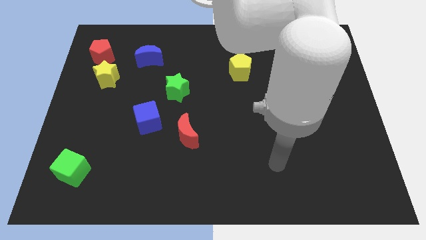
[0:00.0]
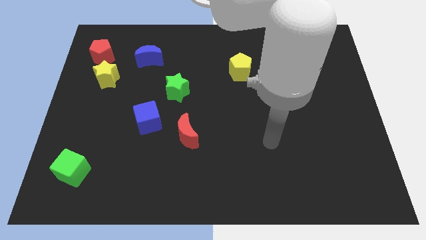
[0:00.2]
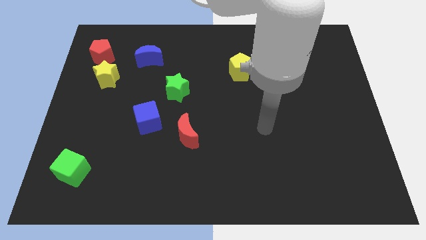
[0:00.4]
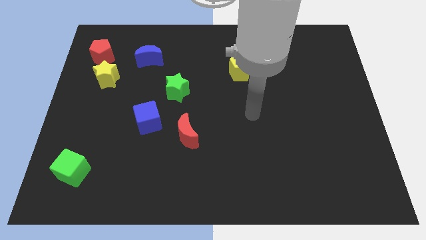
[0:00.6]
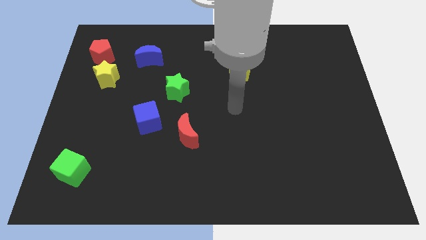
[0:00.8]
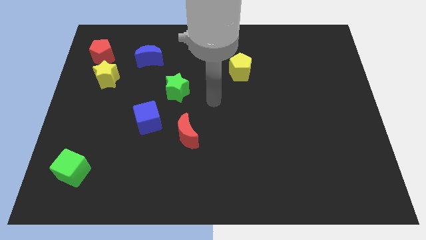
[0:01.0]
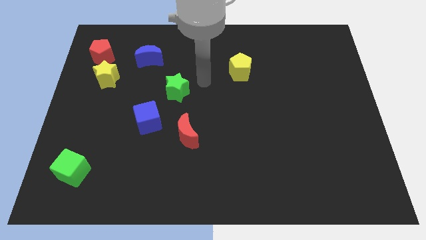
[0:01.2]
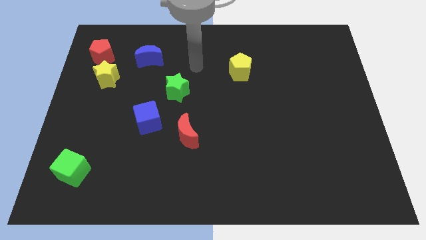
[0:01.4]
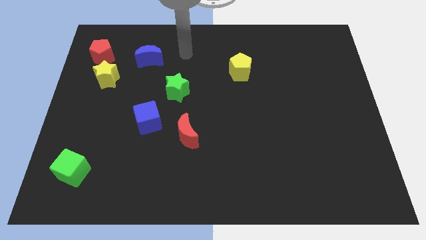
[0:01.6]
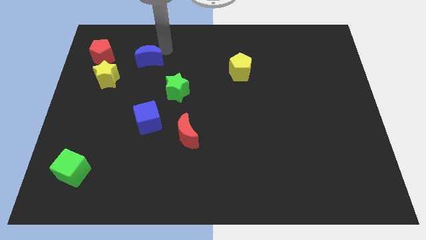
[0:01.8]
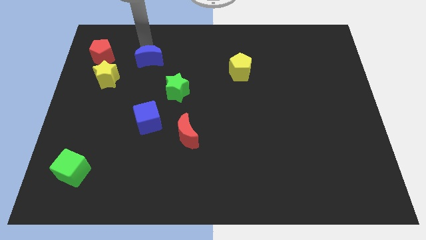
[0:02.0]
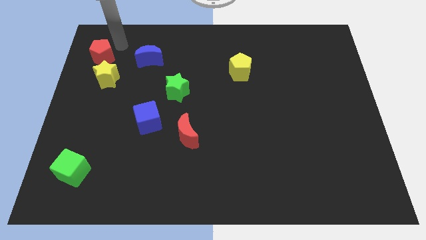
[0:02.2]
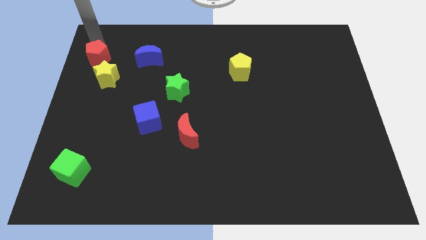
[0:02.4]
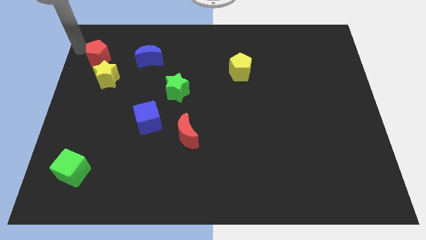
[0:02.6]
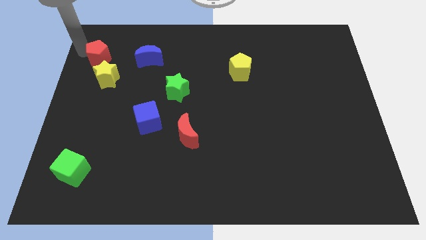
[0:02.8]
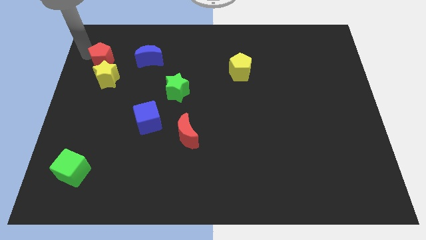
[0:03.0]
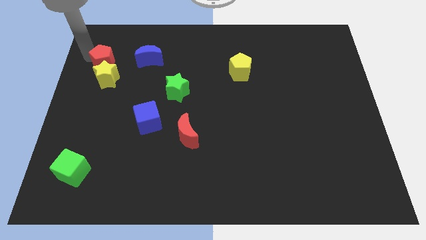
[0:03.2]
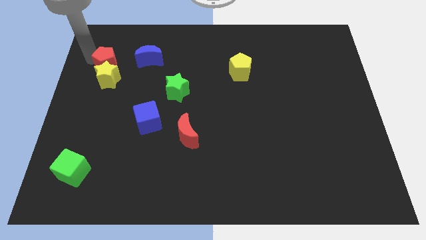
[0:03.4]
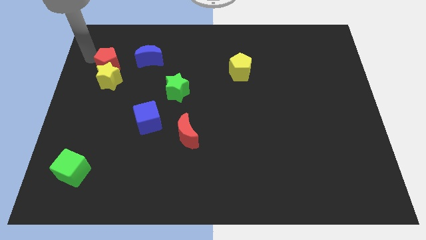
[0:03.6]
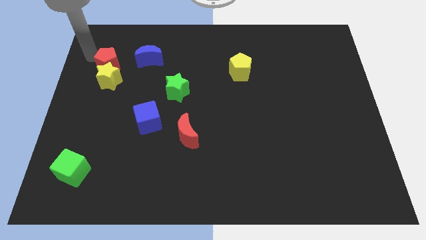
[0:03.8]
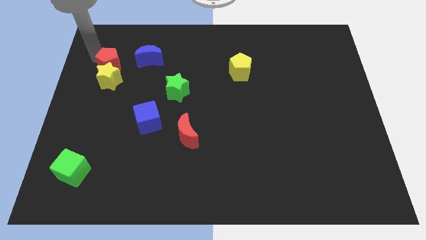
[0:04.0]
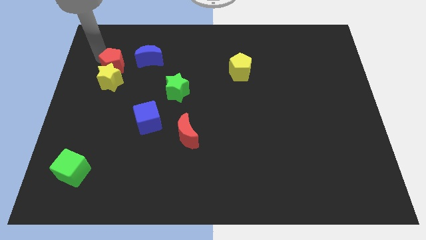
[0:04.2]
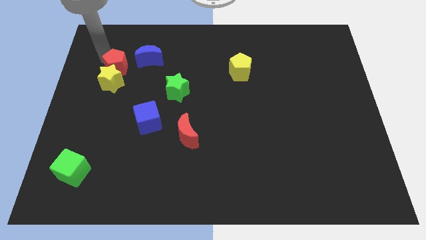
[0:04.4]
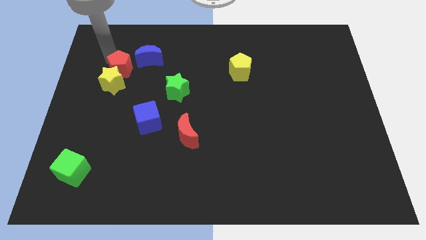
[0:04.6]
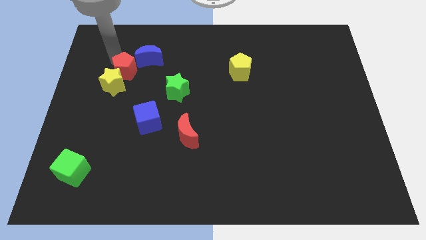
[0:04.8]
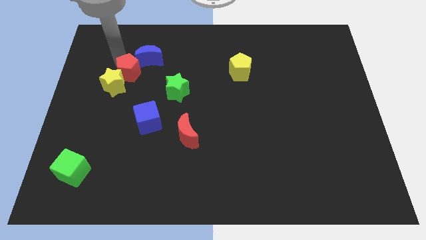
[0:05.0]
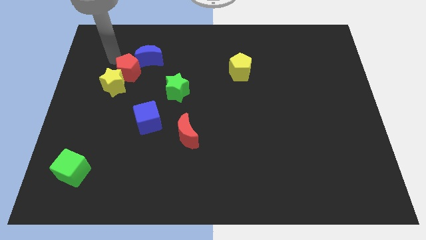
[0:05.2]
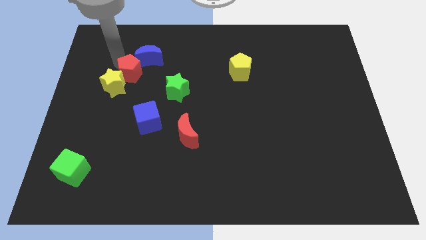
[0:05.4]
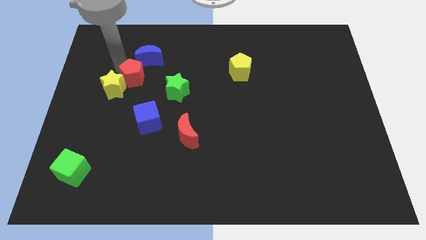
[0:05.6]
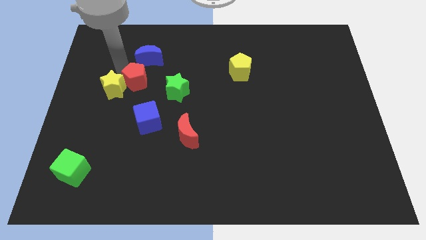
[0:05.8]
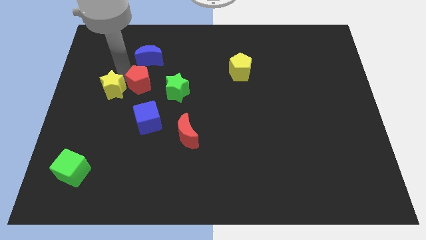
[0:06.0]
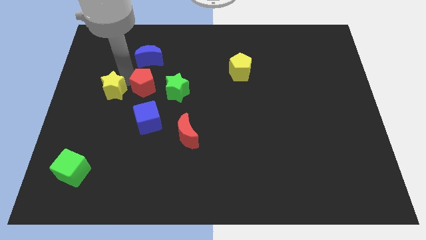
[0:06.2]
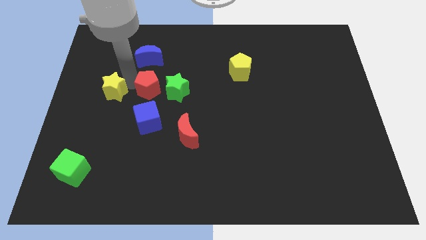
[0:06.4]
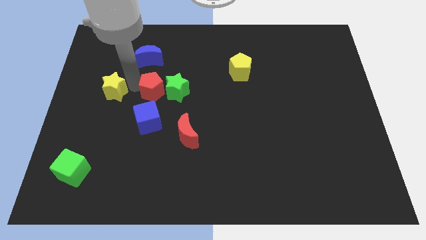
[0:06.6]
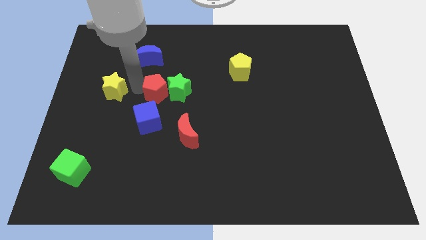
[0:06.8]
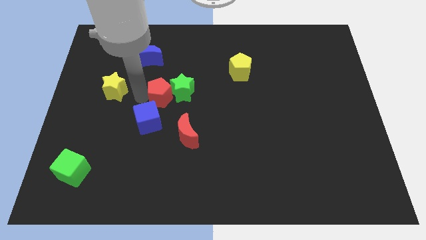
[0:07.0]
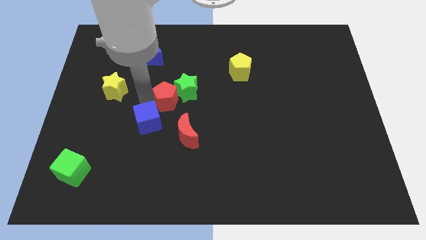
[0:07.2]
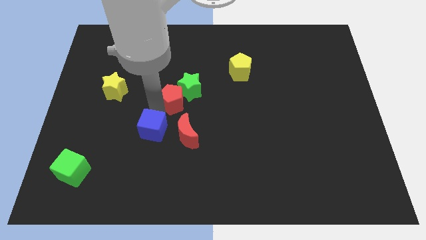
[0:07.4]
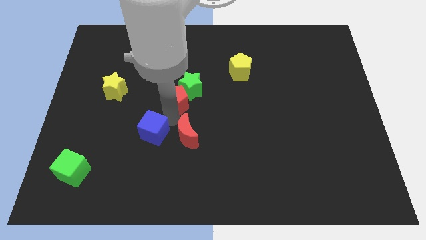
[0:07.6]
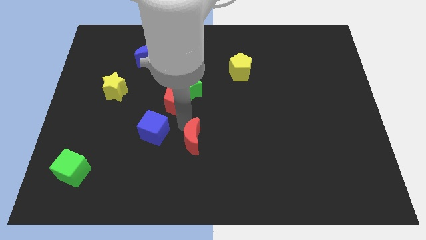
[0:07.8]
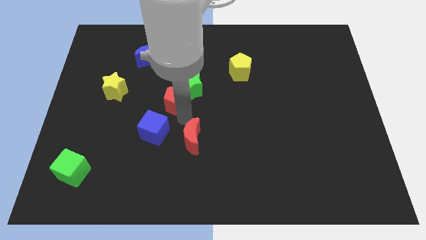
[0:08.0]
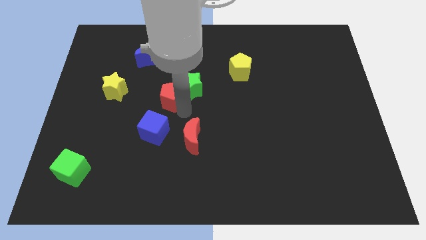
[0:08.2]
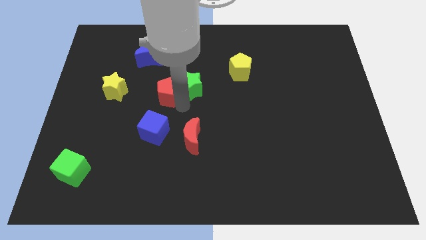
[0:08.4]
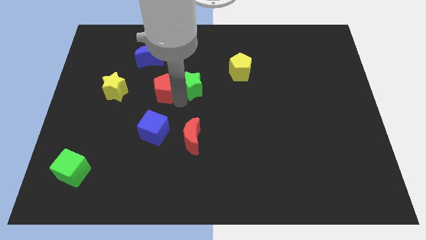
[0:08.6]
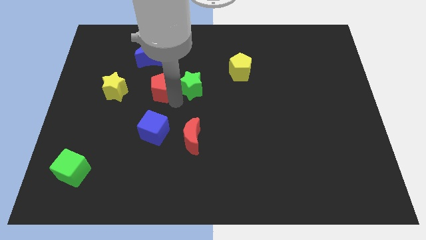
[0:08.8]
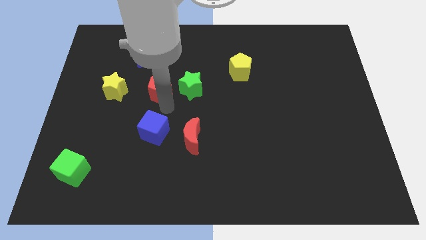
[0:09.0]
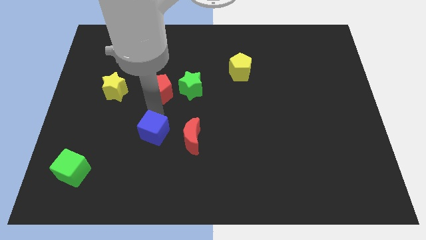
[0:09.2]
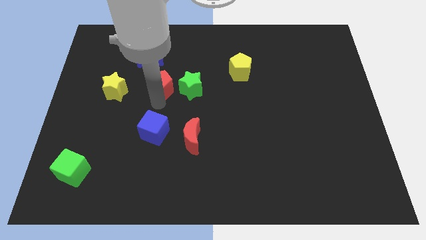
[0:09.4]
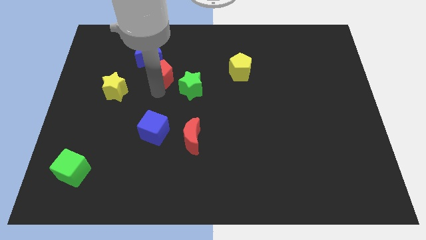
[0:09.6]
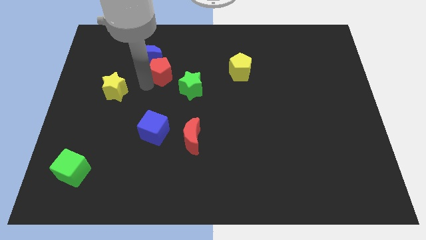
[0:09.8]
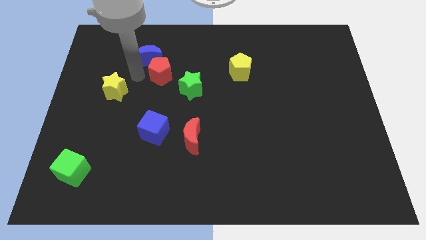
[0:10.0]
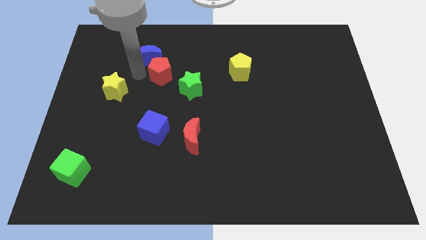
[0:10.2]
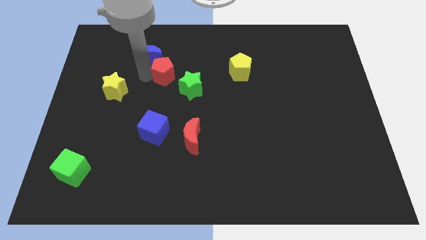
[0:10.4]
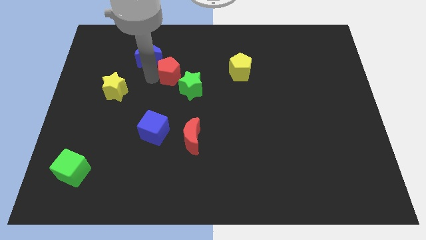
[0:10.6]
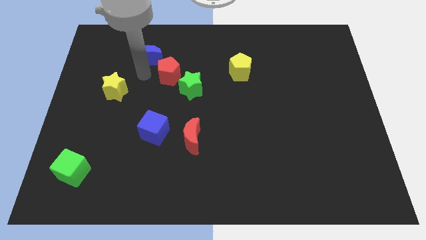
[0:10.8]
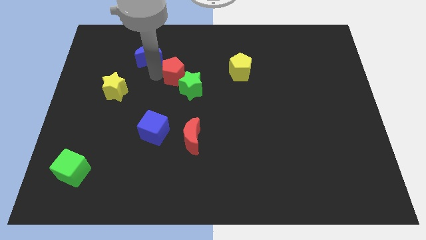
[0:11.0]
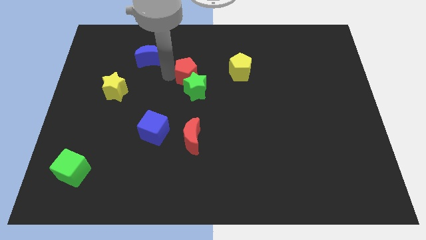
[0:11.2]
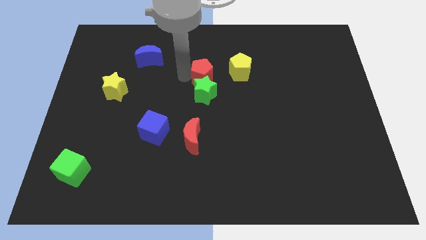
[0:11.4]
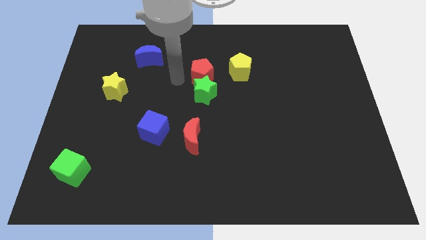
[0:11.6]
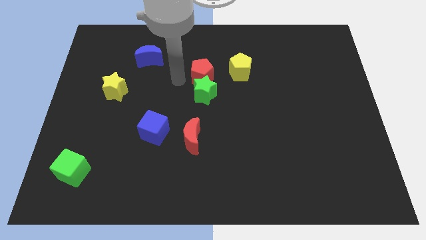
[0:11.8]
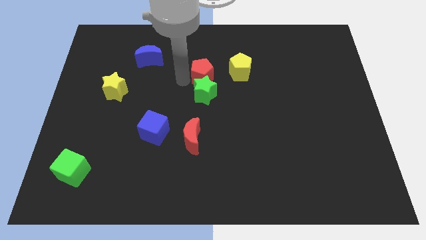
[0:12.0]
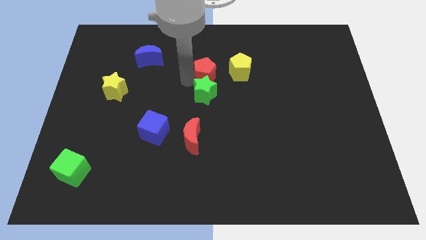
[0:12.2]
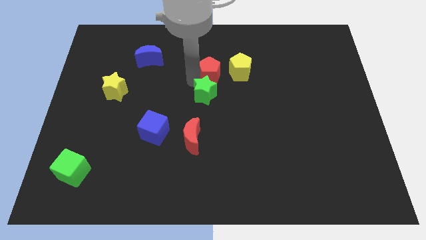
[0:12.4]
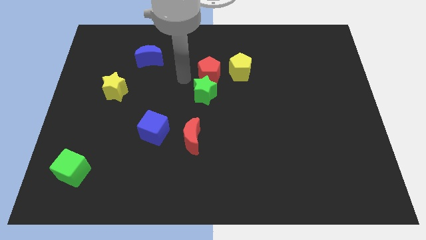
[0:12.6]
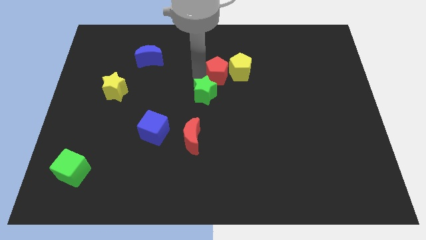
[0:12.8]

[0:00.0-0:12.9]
move the red pentagon close to the yellow pentagon
